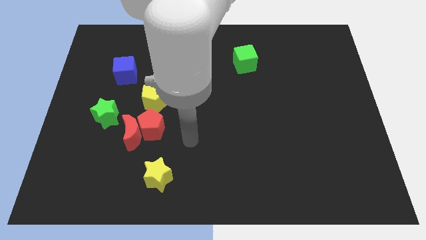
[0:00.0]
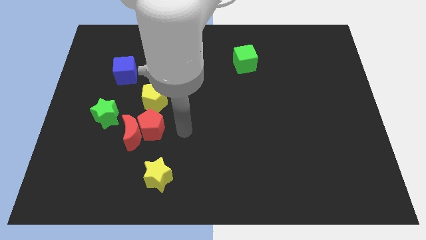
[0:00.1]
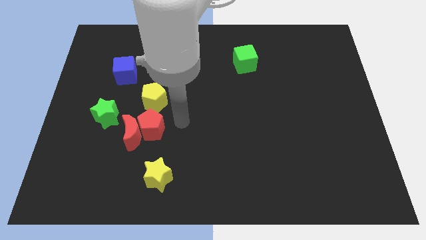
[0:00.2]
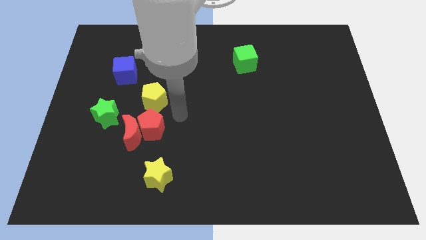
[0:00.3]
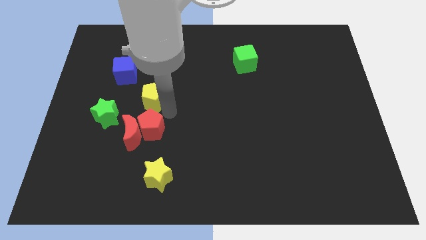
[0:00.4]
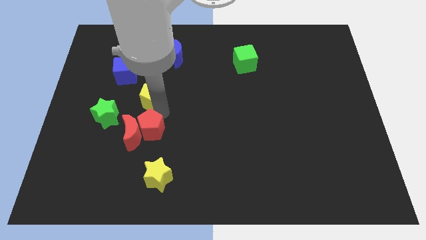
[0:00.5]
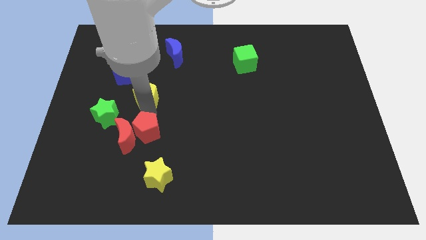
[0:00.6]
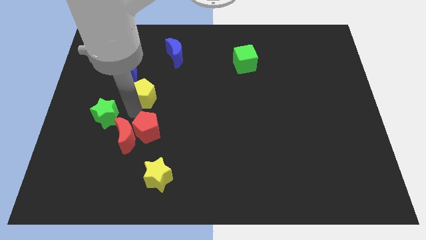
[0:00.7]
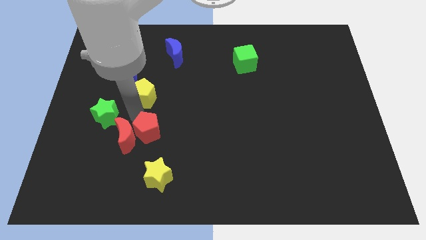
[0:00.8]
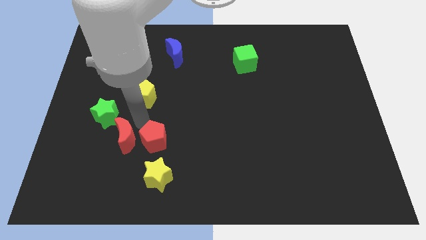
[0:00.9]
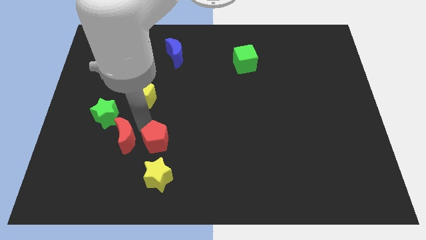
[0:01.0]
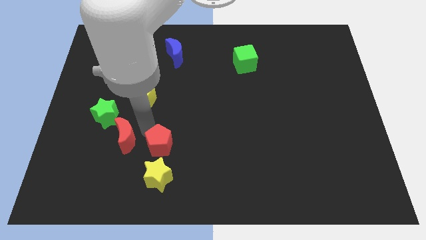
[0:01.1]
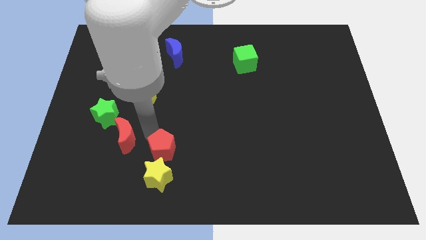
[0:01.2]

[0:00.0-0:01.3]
move the red pentagon away from the red moon and yellow pentagon

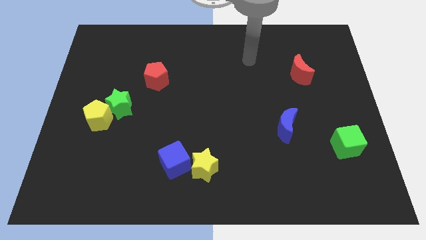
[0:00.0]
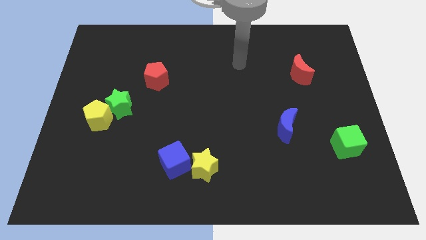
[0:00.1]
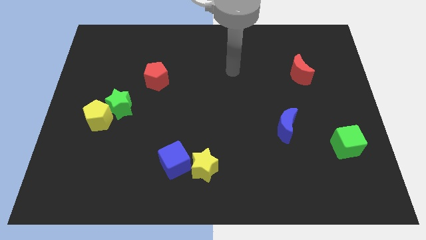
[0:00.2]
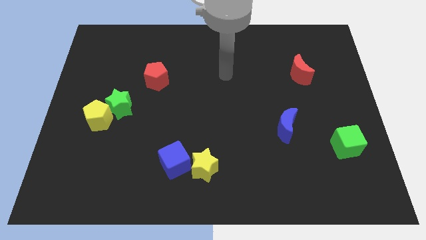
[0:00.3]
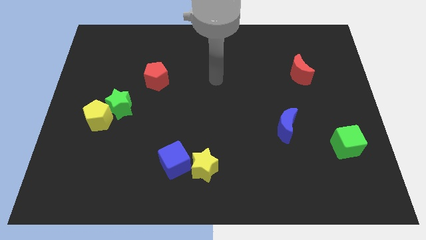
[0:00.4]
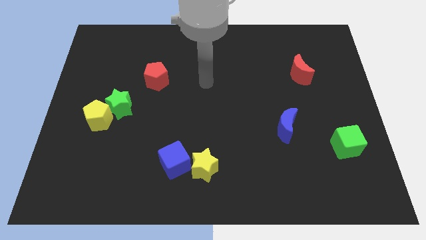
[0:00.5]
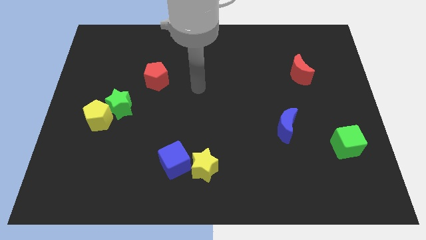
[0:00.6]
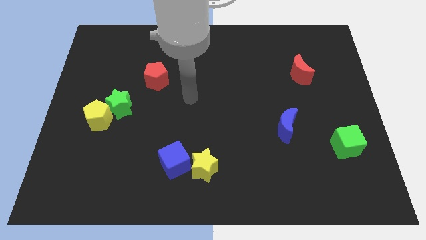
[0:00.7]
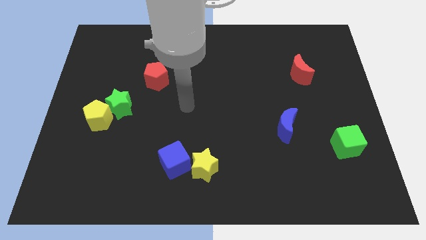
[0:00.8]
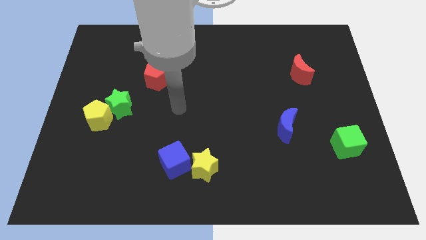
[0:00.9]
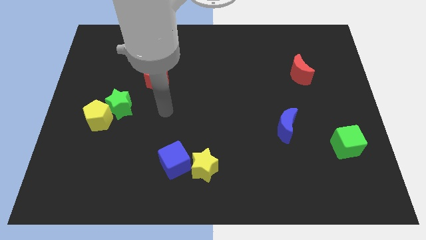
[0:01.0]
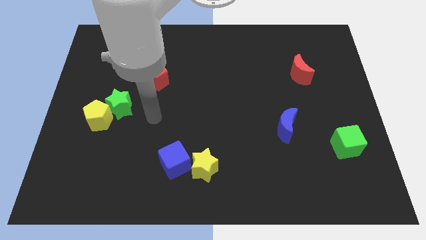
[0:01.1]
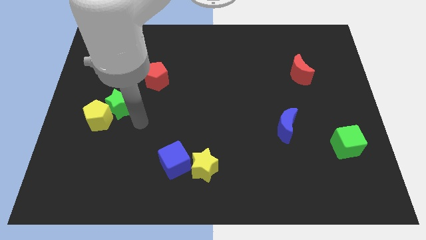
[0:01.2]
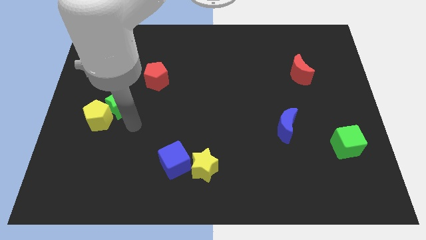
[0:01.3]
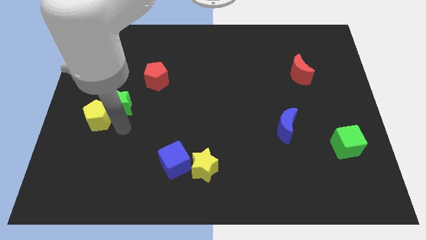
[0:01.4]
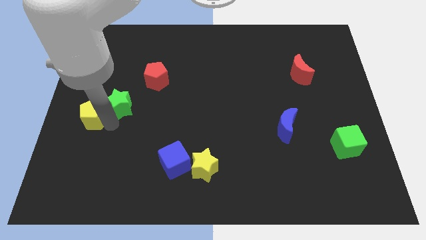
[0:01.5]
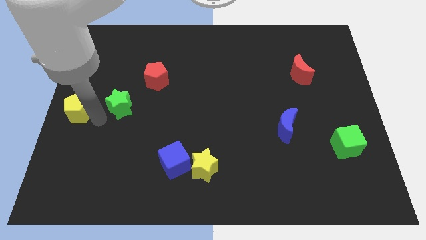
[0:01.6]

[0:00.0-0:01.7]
separate the green star from the yellow pentagon

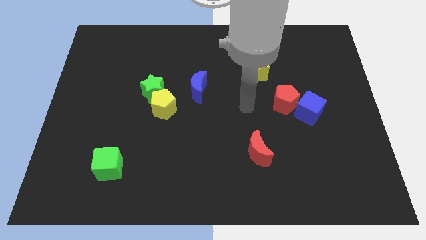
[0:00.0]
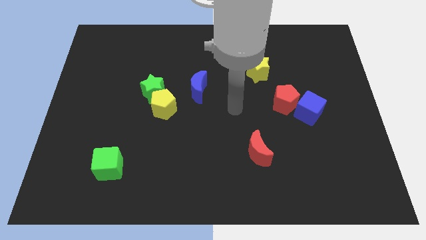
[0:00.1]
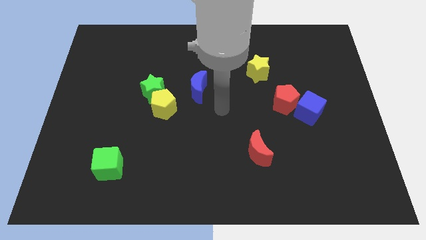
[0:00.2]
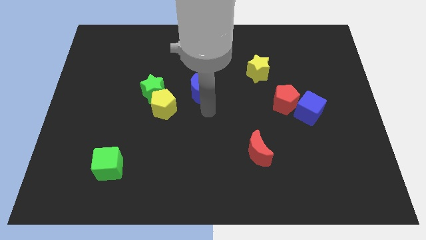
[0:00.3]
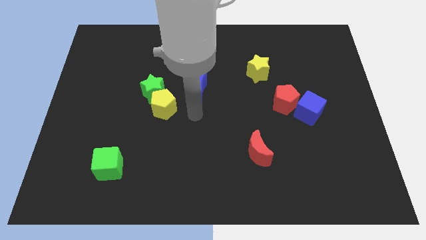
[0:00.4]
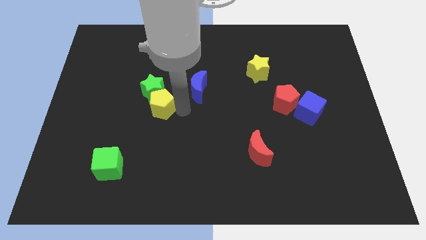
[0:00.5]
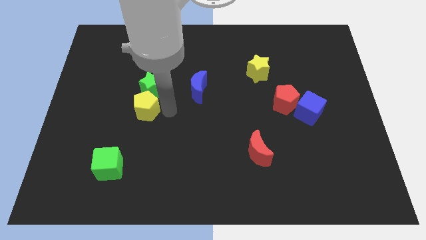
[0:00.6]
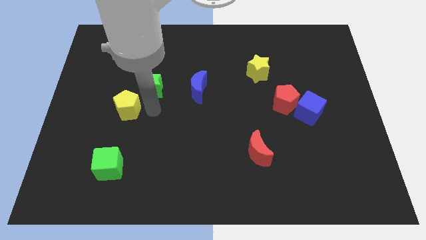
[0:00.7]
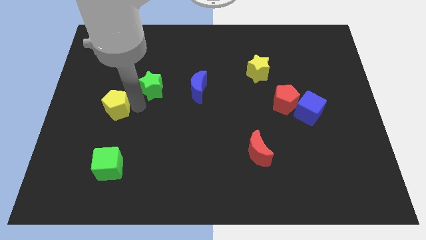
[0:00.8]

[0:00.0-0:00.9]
move the green star away from the yellow pentagon

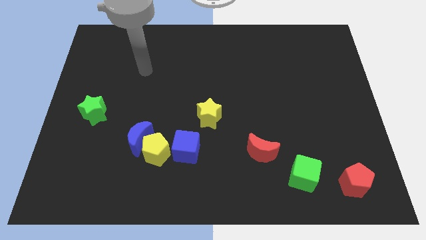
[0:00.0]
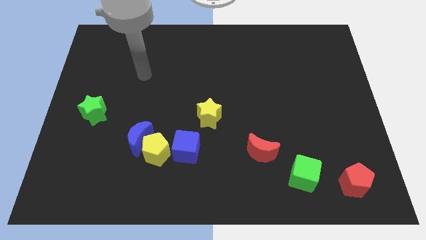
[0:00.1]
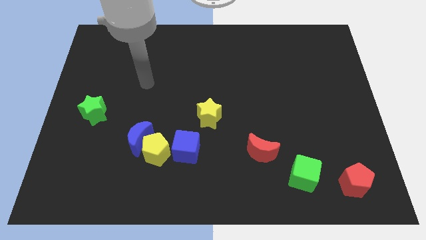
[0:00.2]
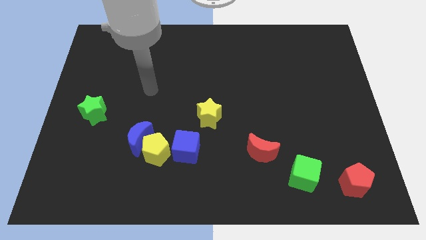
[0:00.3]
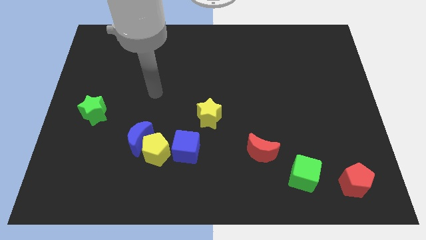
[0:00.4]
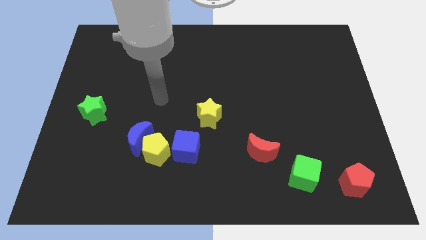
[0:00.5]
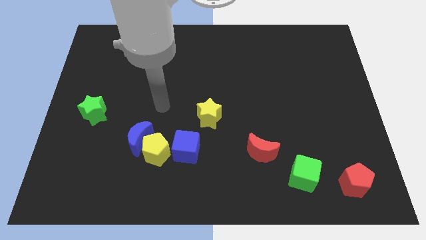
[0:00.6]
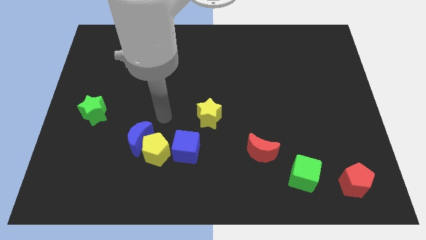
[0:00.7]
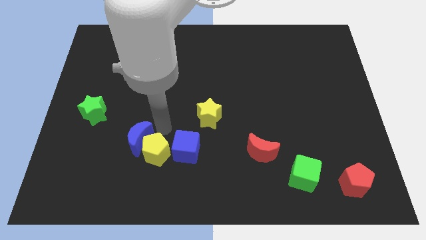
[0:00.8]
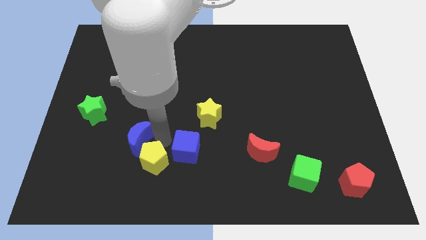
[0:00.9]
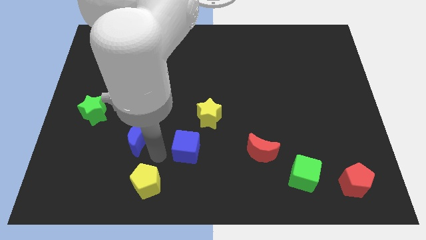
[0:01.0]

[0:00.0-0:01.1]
separate the blue moon from the yellow pentagon

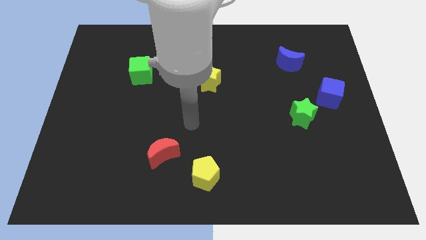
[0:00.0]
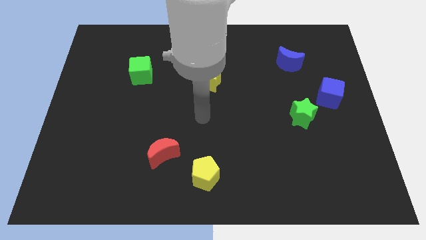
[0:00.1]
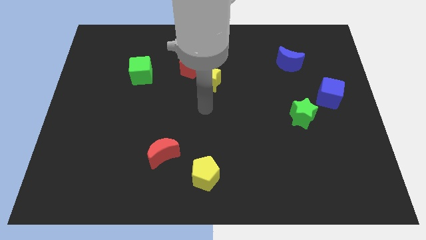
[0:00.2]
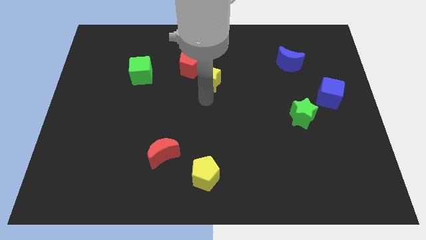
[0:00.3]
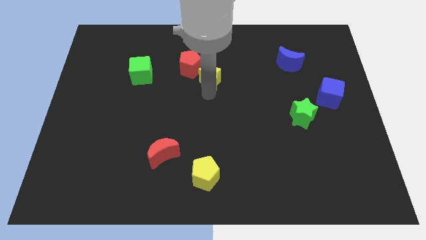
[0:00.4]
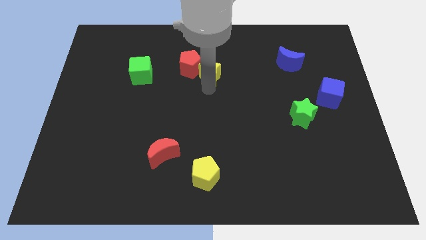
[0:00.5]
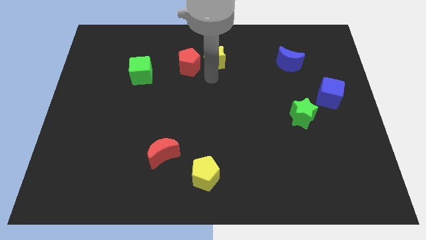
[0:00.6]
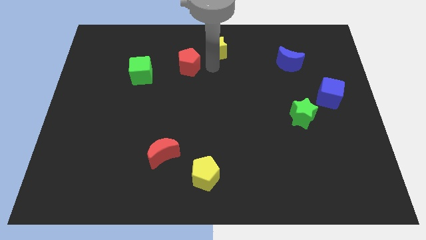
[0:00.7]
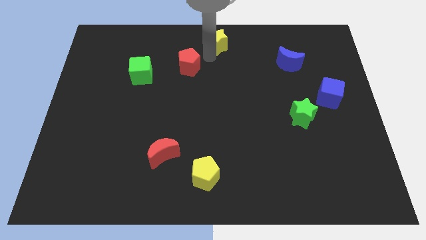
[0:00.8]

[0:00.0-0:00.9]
pull the red pentagon apart from the yellow star

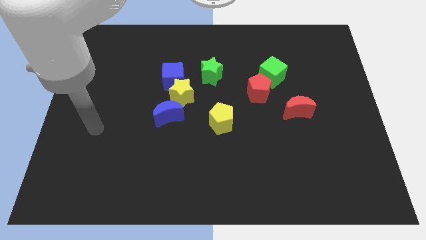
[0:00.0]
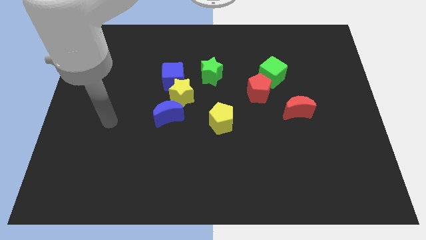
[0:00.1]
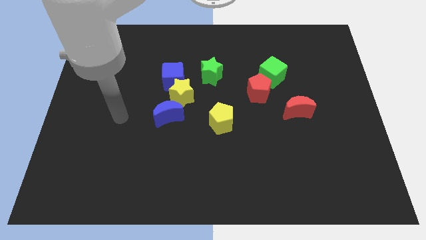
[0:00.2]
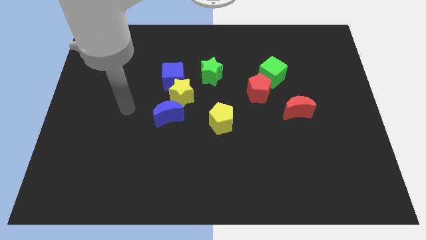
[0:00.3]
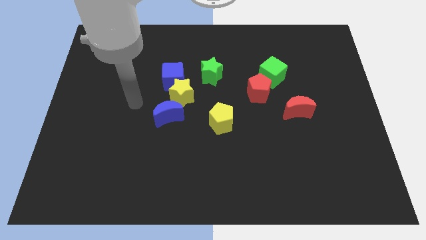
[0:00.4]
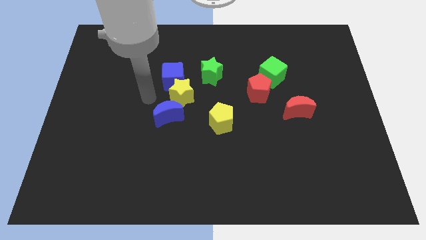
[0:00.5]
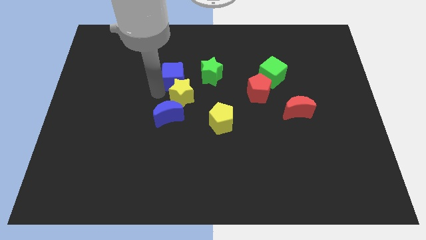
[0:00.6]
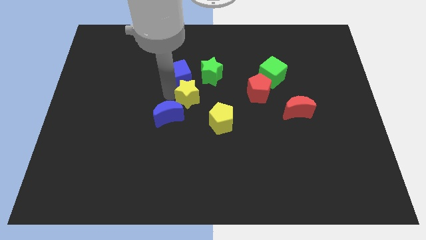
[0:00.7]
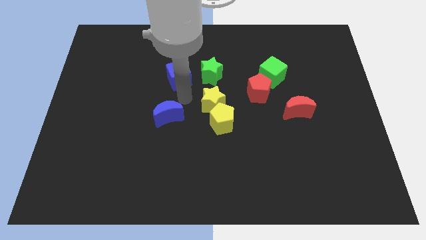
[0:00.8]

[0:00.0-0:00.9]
pull the blue moon apart from the yellow star

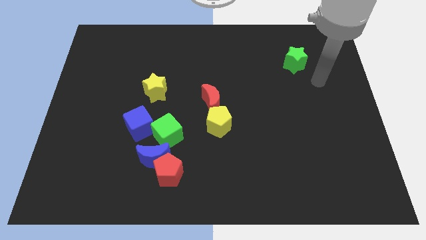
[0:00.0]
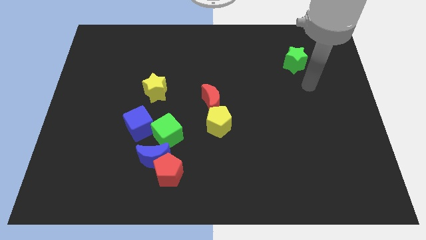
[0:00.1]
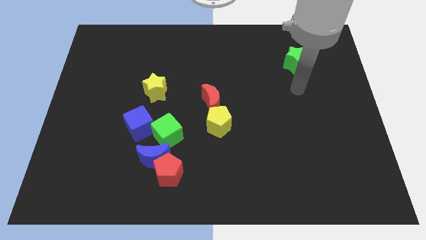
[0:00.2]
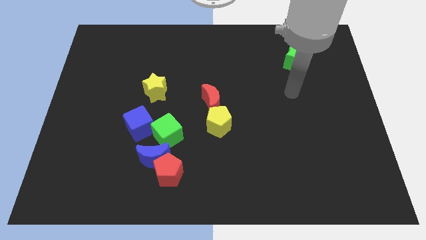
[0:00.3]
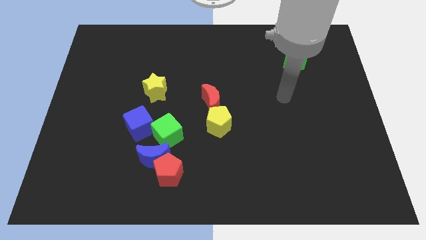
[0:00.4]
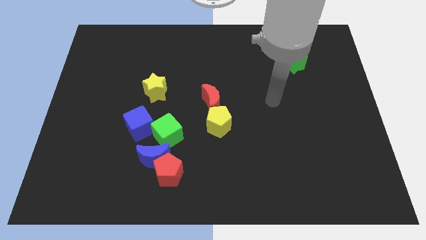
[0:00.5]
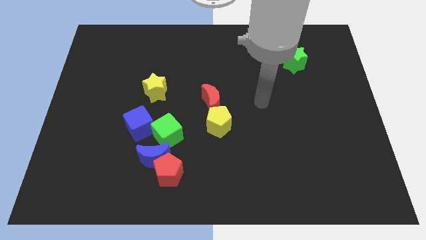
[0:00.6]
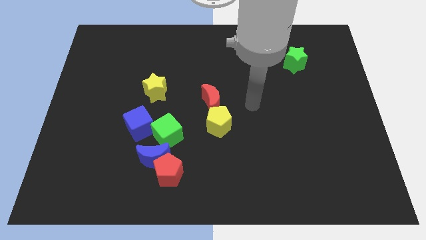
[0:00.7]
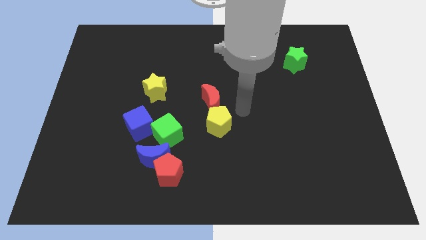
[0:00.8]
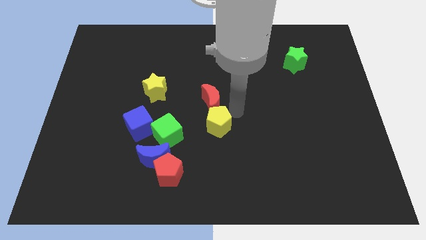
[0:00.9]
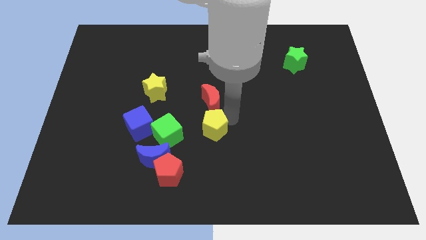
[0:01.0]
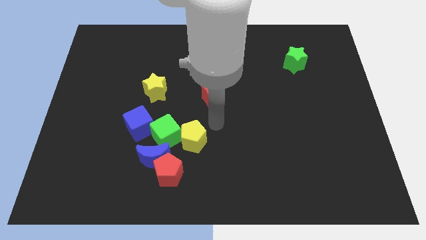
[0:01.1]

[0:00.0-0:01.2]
pull the red moon apart from the yellow pentagon

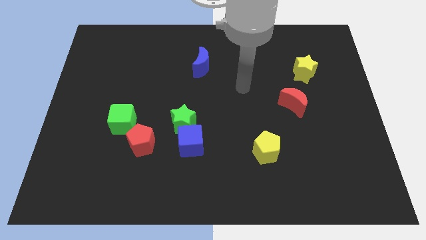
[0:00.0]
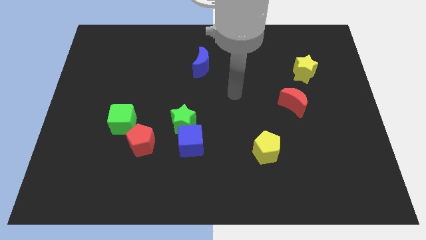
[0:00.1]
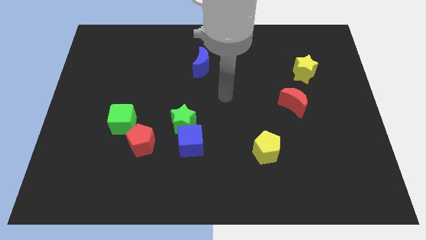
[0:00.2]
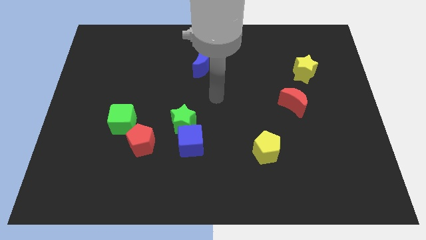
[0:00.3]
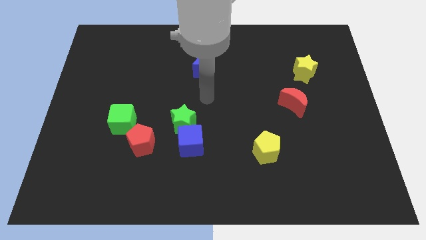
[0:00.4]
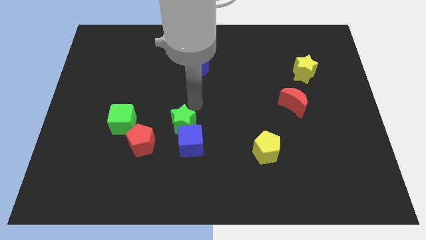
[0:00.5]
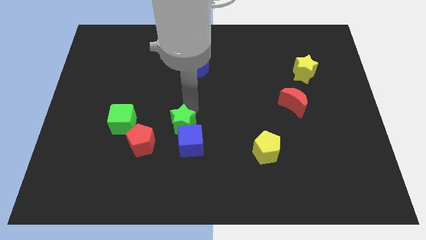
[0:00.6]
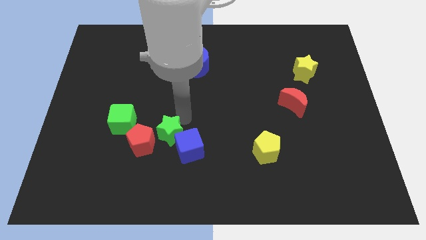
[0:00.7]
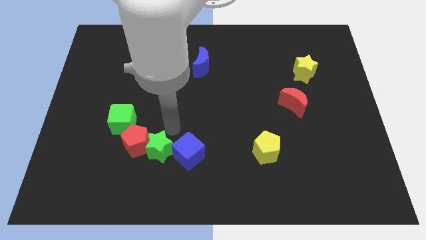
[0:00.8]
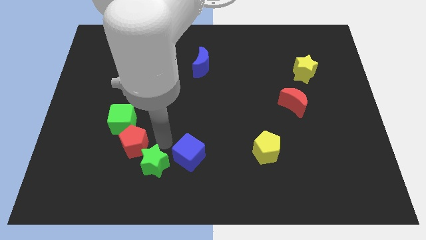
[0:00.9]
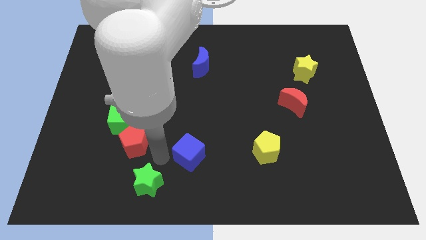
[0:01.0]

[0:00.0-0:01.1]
move the blue cube away from the green star
